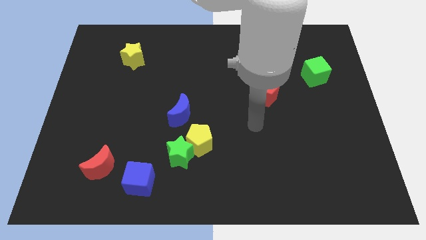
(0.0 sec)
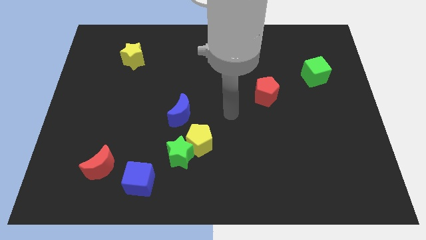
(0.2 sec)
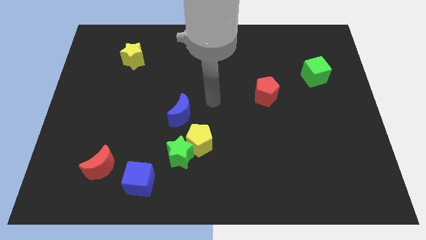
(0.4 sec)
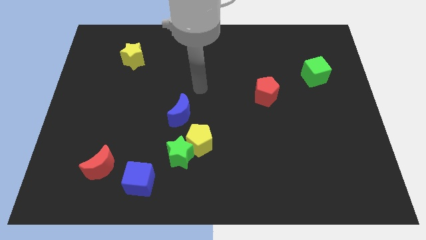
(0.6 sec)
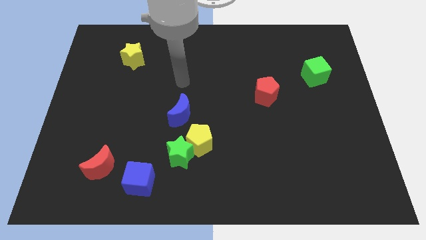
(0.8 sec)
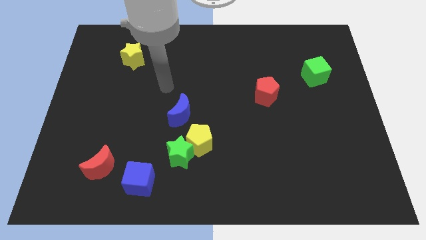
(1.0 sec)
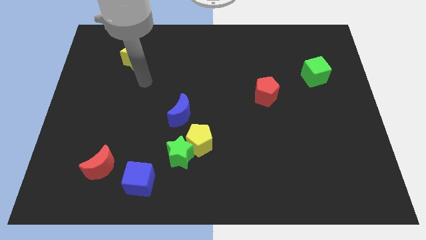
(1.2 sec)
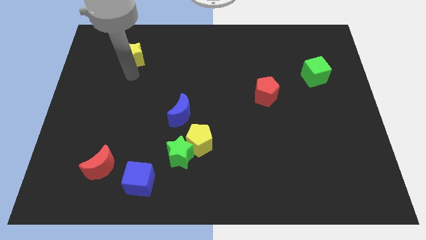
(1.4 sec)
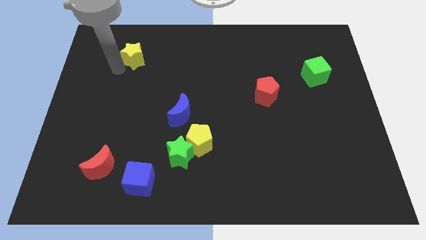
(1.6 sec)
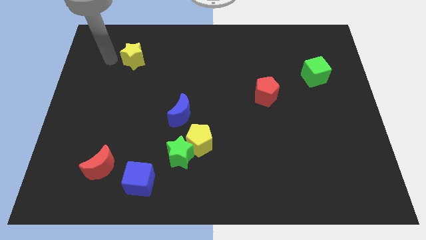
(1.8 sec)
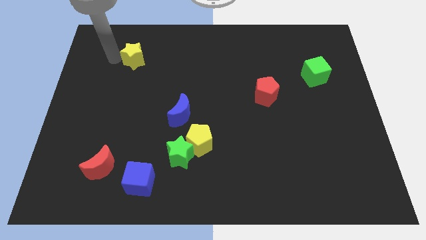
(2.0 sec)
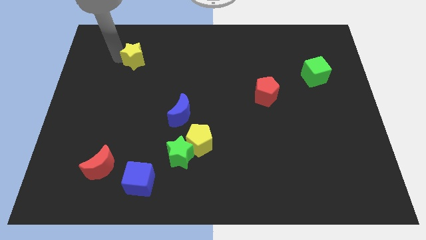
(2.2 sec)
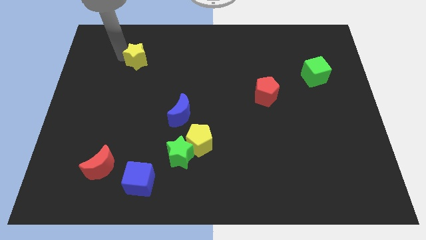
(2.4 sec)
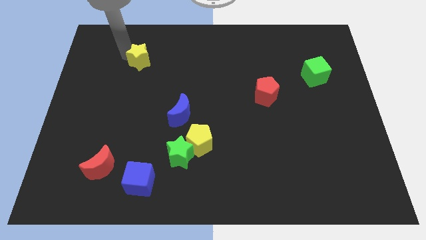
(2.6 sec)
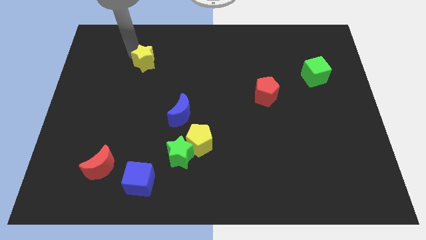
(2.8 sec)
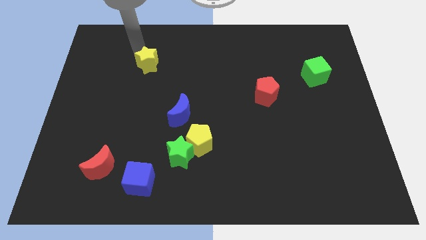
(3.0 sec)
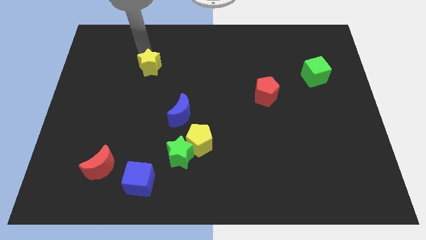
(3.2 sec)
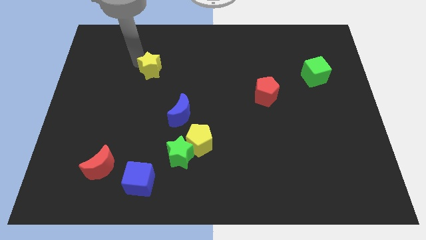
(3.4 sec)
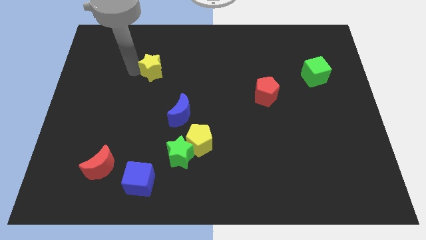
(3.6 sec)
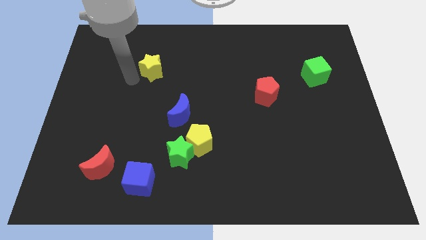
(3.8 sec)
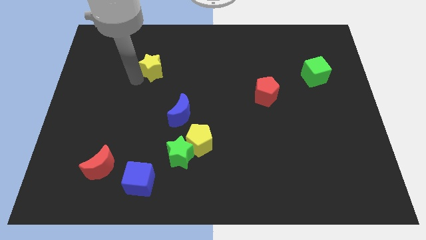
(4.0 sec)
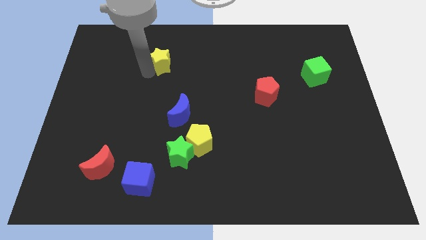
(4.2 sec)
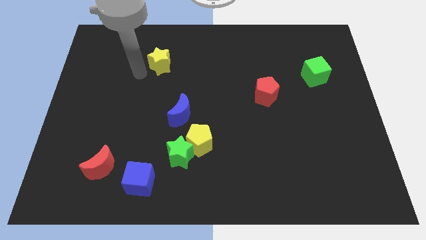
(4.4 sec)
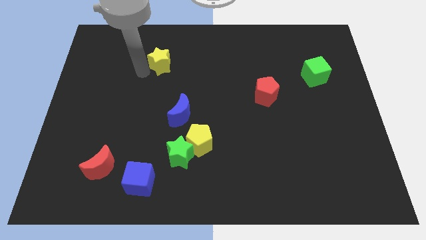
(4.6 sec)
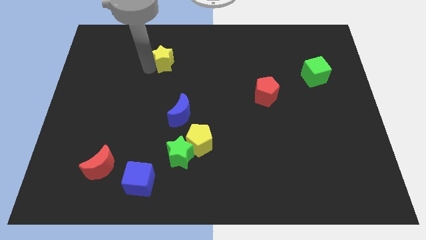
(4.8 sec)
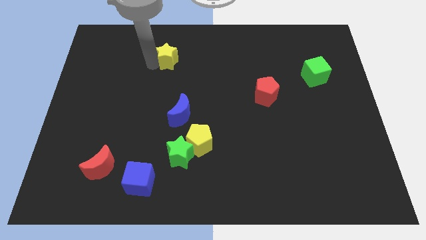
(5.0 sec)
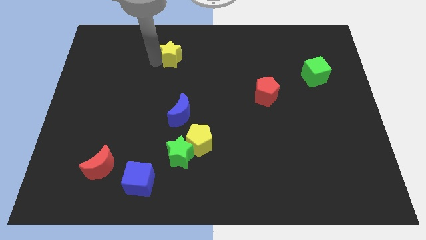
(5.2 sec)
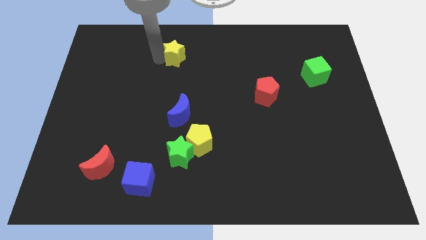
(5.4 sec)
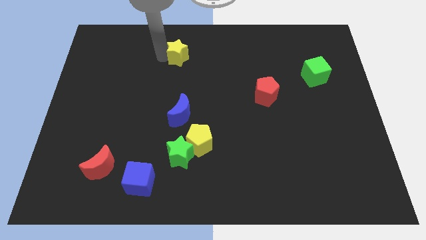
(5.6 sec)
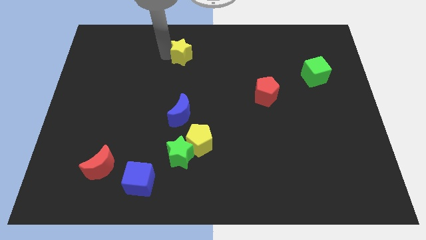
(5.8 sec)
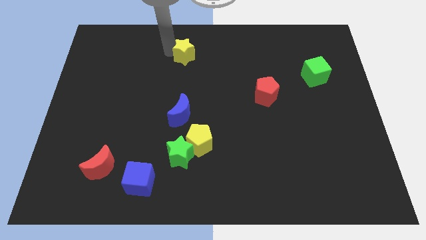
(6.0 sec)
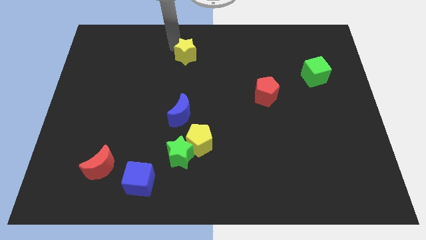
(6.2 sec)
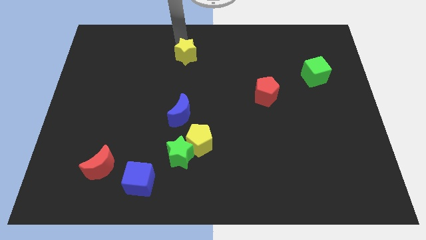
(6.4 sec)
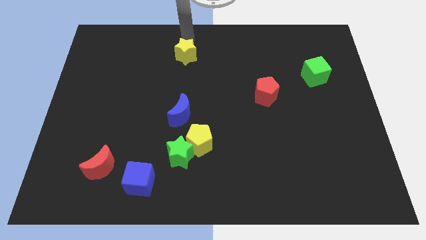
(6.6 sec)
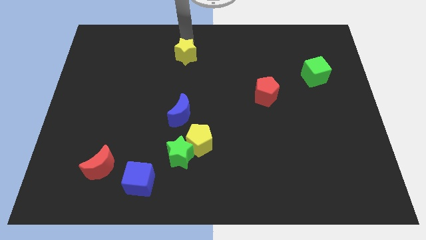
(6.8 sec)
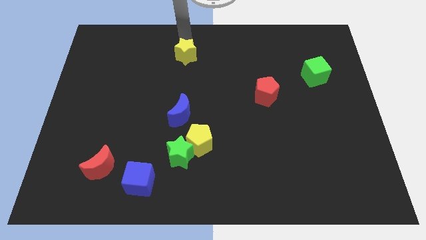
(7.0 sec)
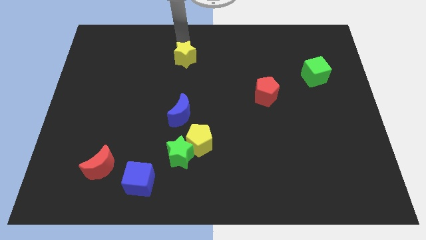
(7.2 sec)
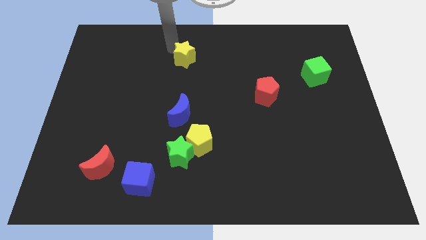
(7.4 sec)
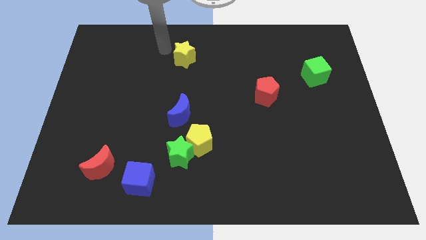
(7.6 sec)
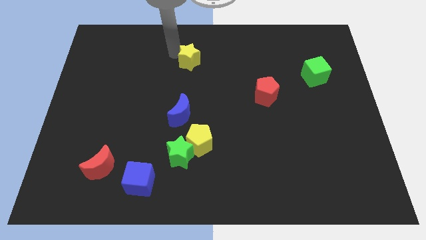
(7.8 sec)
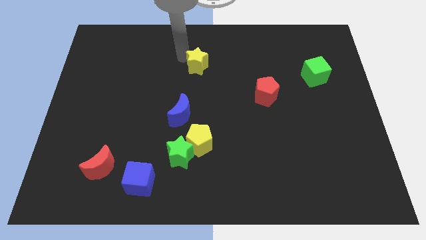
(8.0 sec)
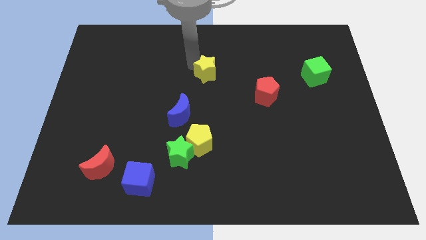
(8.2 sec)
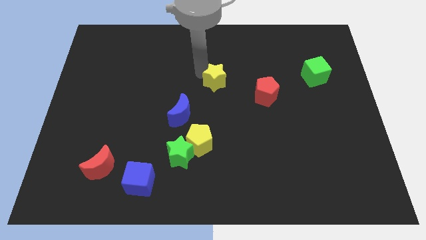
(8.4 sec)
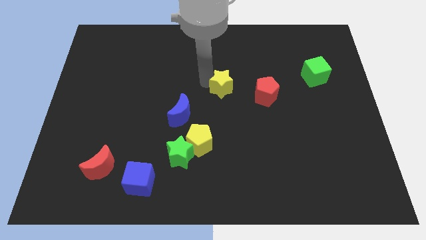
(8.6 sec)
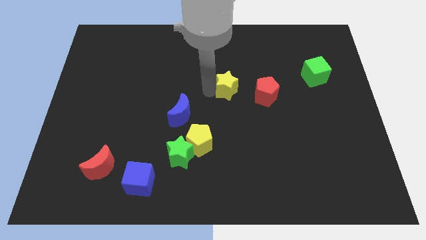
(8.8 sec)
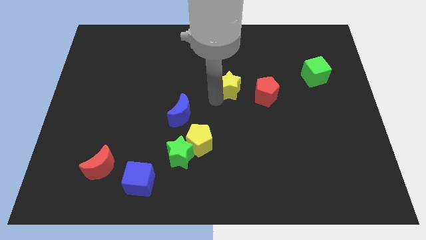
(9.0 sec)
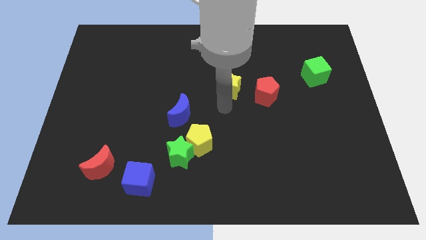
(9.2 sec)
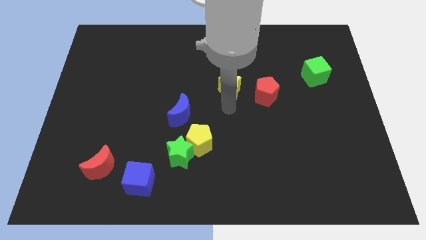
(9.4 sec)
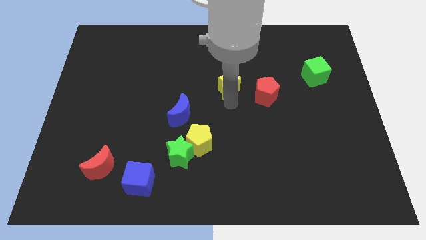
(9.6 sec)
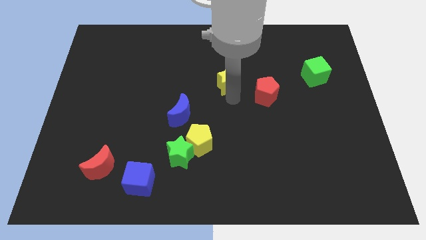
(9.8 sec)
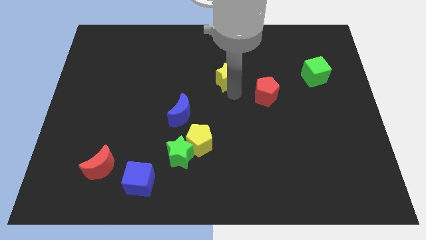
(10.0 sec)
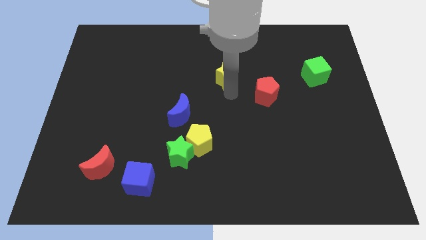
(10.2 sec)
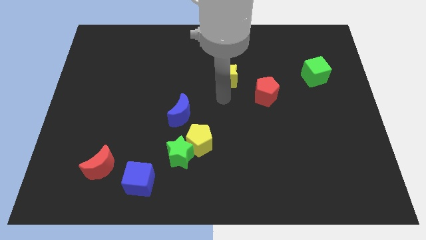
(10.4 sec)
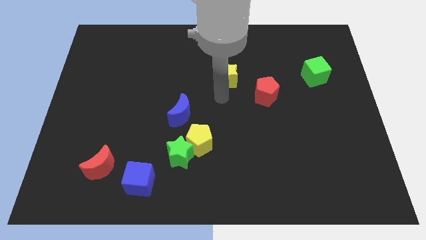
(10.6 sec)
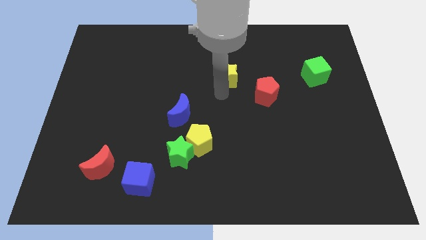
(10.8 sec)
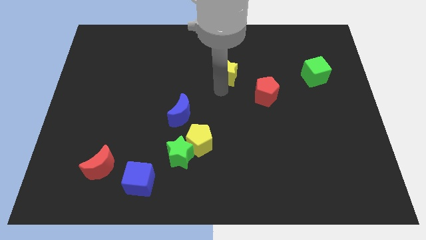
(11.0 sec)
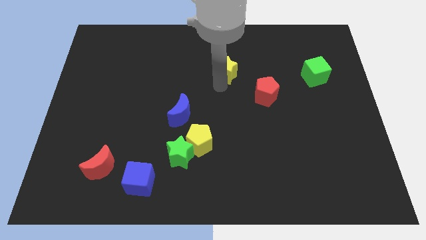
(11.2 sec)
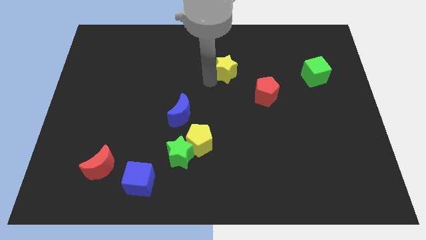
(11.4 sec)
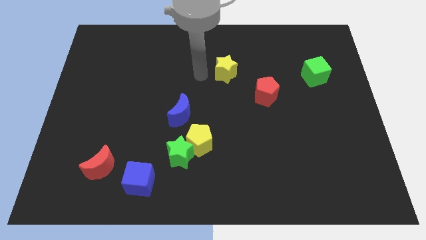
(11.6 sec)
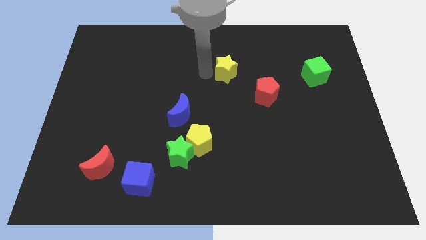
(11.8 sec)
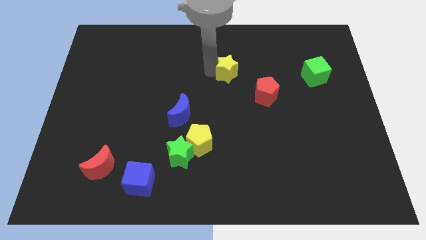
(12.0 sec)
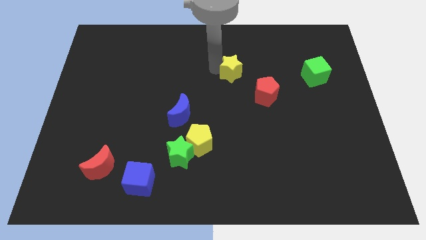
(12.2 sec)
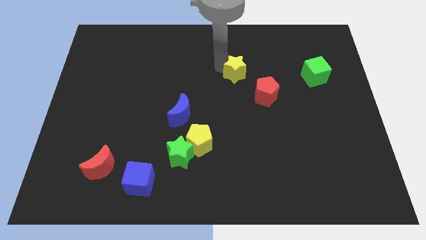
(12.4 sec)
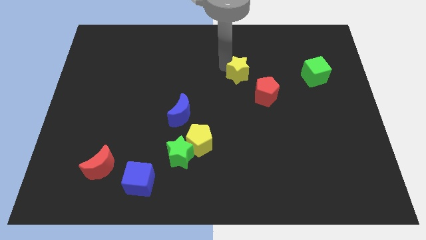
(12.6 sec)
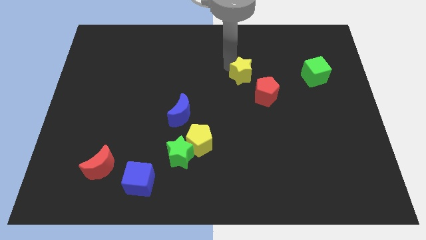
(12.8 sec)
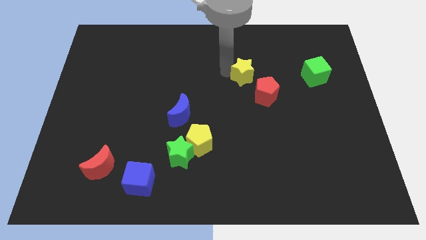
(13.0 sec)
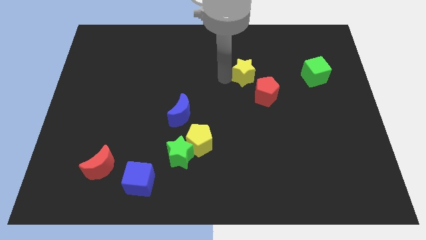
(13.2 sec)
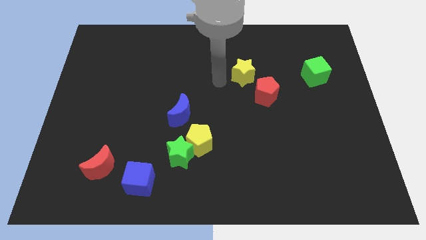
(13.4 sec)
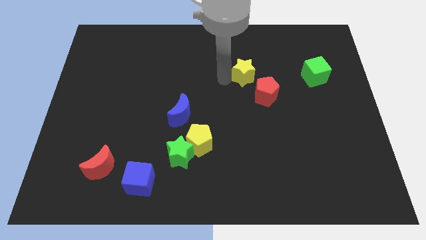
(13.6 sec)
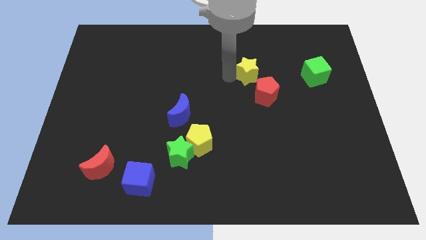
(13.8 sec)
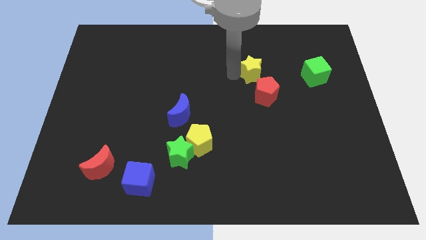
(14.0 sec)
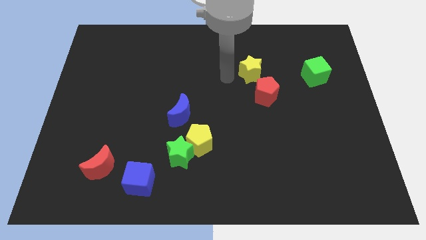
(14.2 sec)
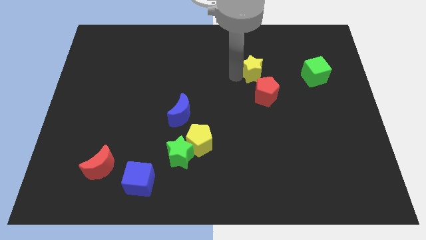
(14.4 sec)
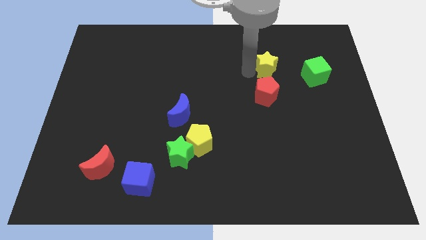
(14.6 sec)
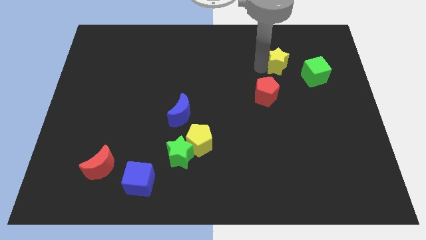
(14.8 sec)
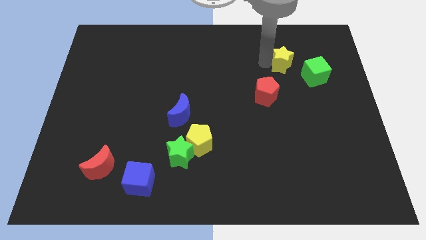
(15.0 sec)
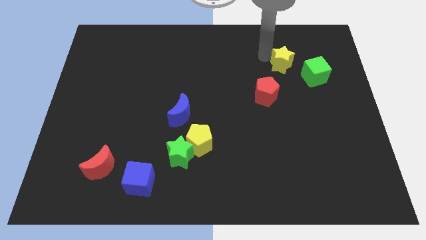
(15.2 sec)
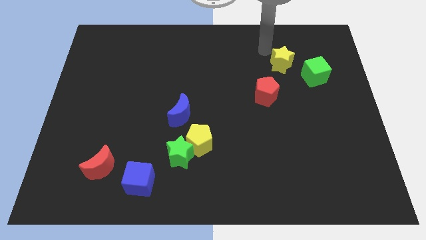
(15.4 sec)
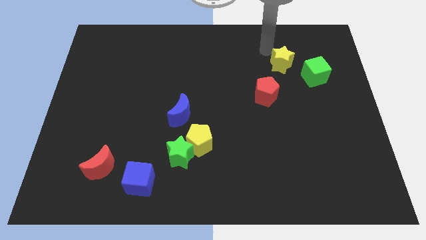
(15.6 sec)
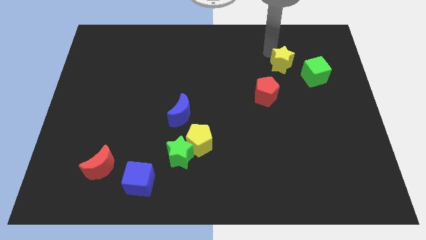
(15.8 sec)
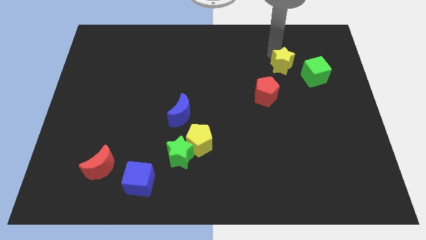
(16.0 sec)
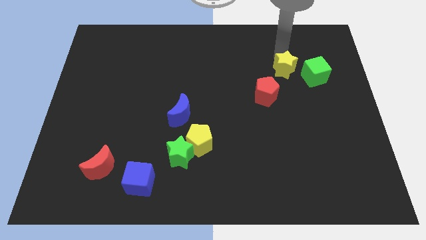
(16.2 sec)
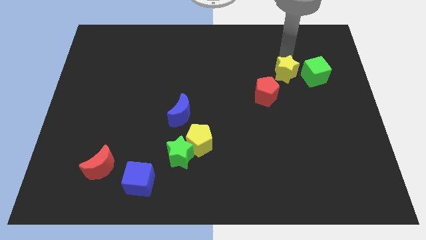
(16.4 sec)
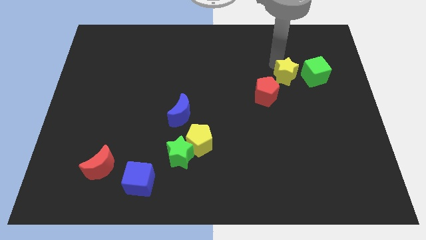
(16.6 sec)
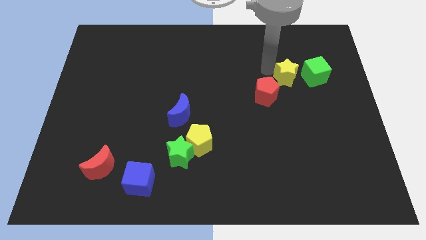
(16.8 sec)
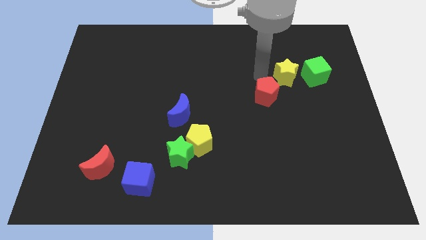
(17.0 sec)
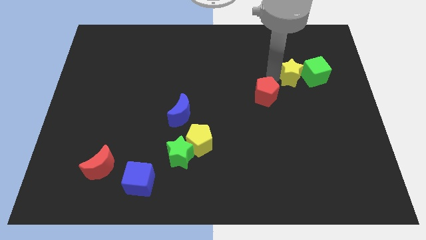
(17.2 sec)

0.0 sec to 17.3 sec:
slide the yellow star close to the green cube
